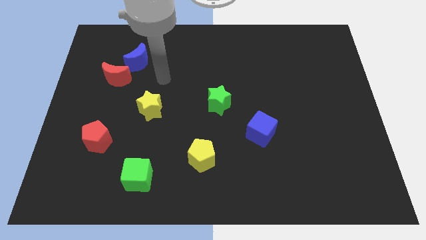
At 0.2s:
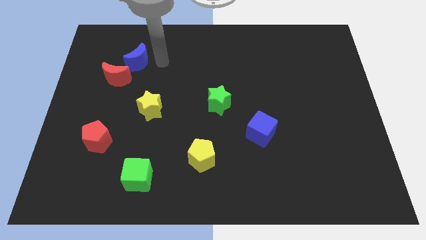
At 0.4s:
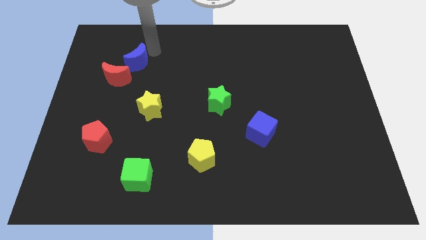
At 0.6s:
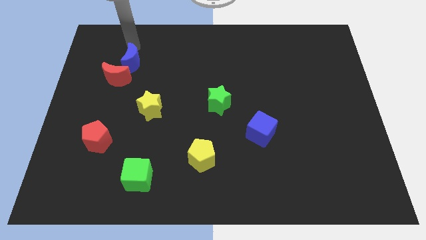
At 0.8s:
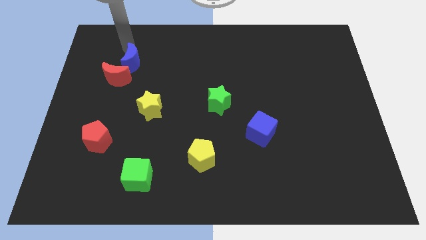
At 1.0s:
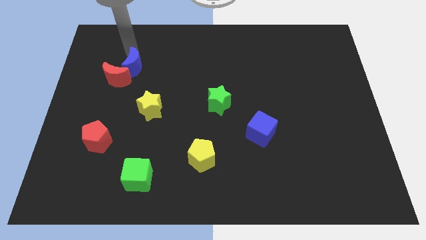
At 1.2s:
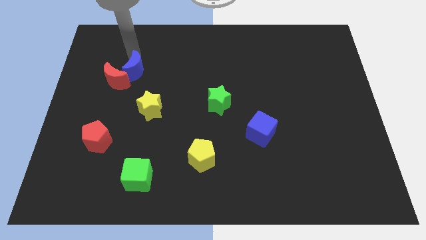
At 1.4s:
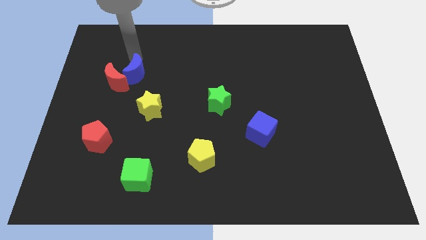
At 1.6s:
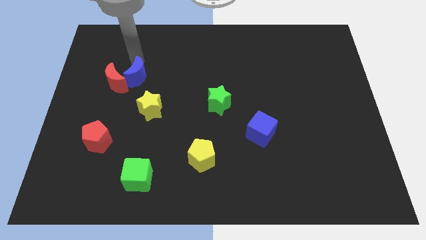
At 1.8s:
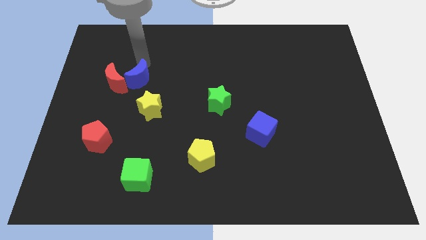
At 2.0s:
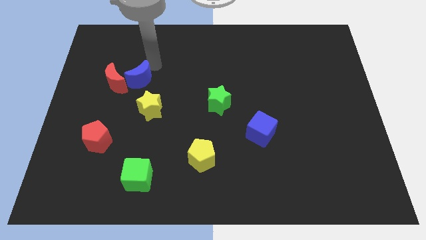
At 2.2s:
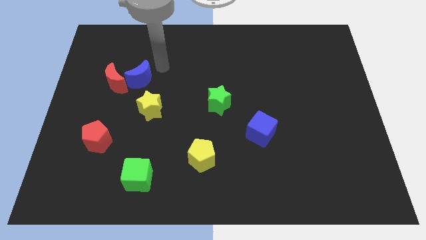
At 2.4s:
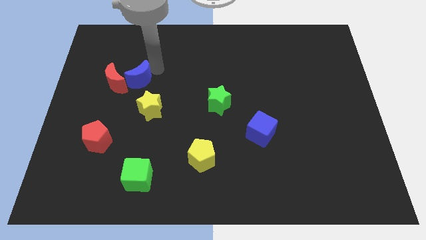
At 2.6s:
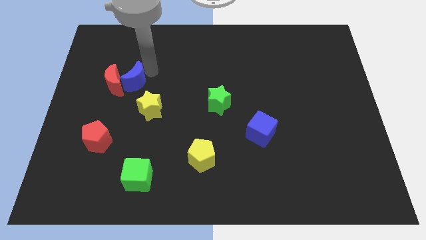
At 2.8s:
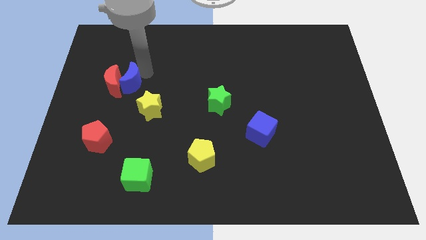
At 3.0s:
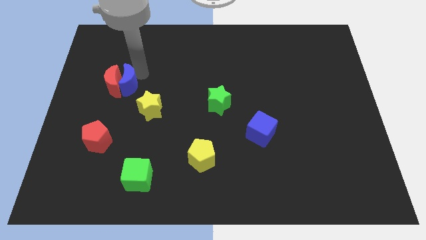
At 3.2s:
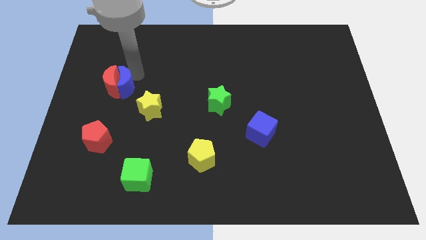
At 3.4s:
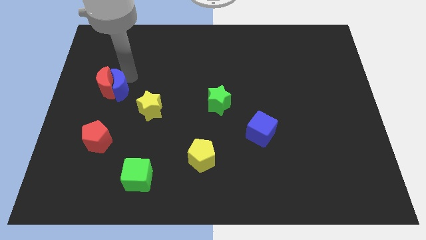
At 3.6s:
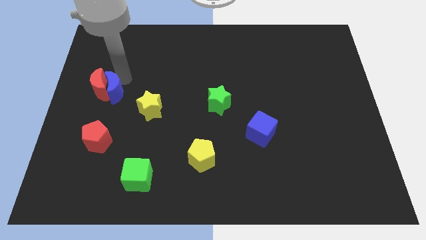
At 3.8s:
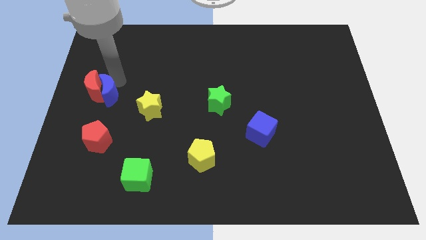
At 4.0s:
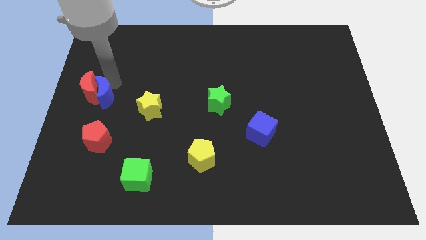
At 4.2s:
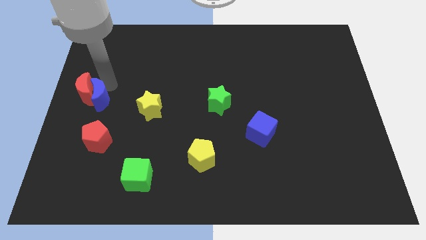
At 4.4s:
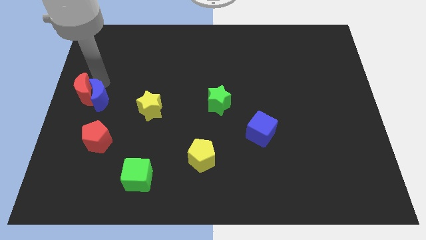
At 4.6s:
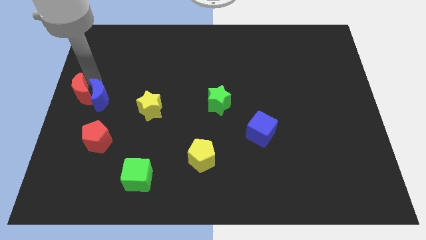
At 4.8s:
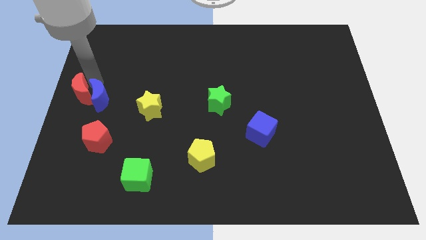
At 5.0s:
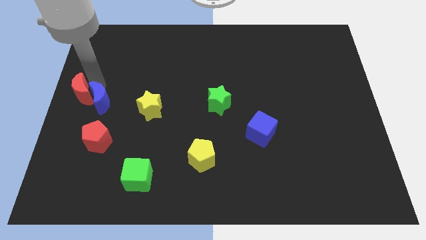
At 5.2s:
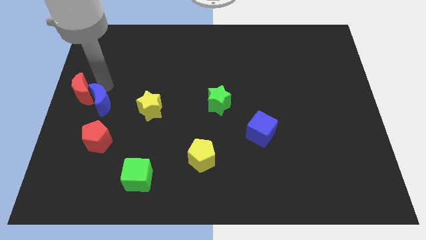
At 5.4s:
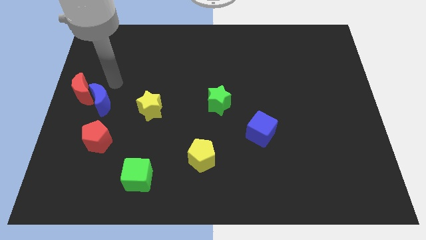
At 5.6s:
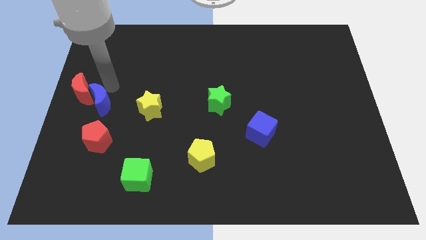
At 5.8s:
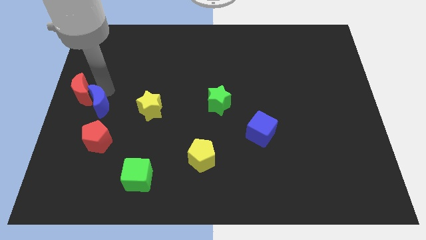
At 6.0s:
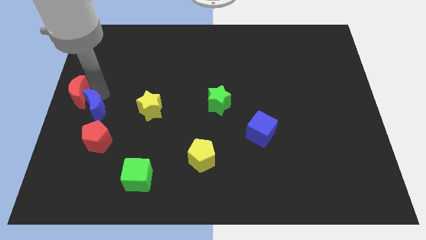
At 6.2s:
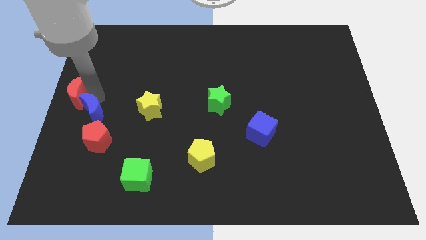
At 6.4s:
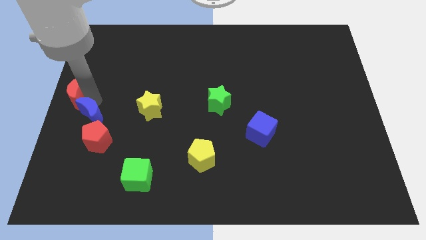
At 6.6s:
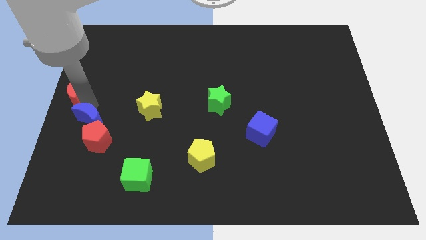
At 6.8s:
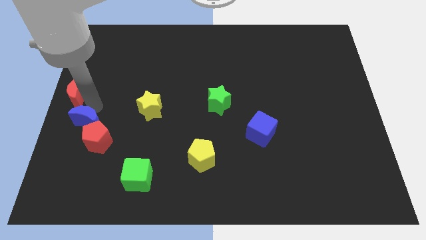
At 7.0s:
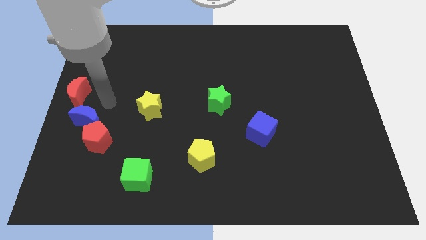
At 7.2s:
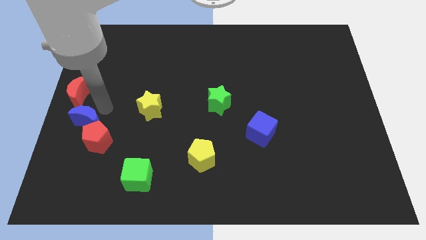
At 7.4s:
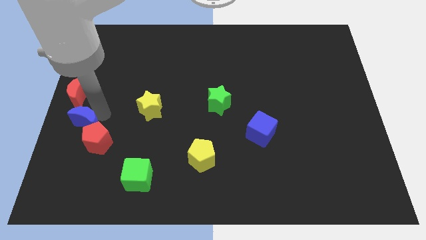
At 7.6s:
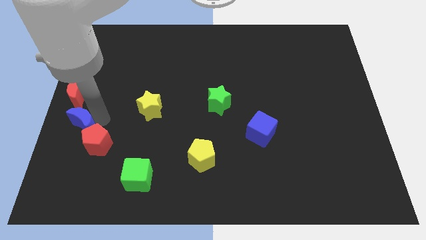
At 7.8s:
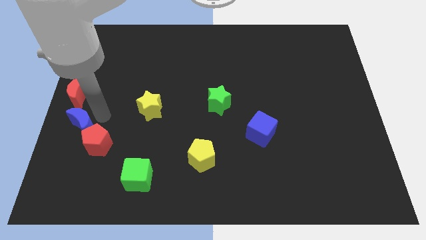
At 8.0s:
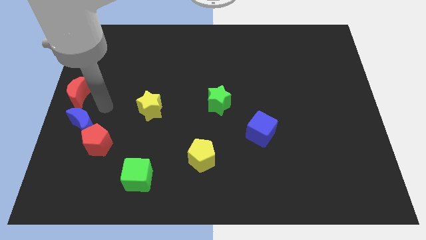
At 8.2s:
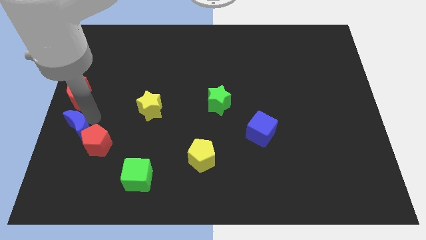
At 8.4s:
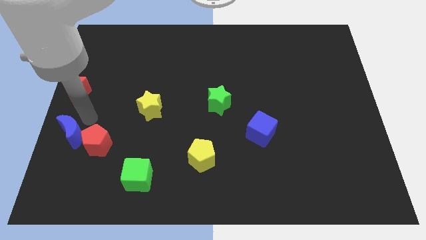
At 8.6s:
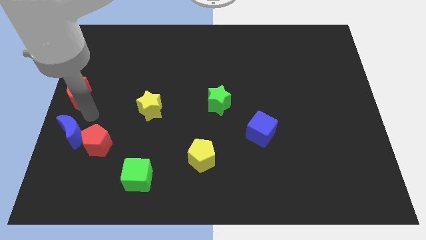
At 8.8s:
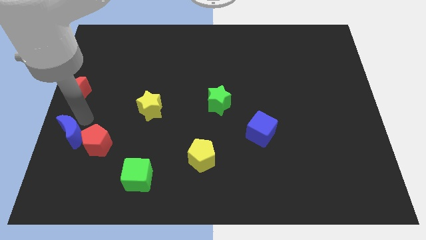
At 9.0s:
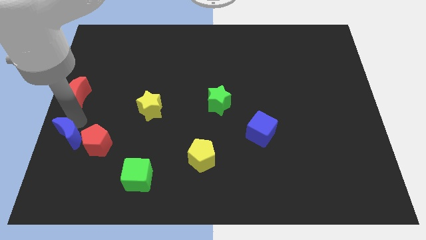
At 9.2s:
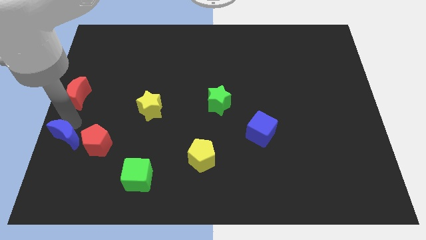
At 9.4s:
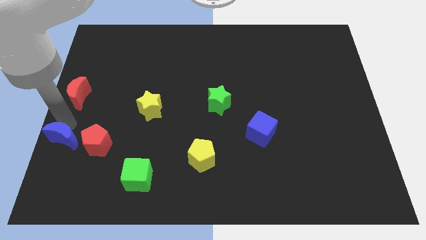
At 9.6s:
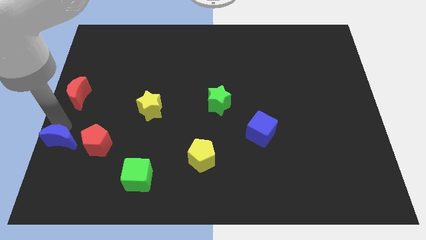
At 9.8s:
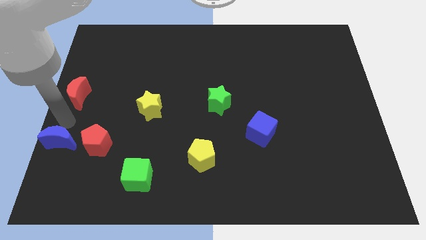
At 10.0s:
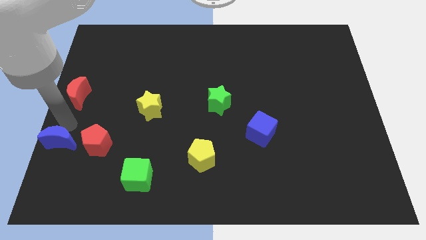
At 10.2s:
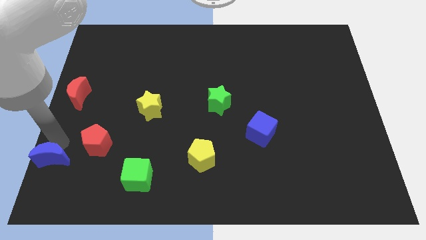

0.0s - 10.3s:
slide the blue moon to the bottom left corner
